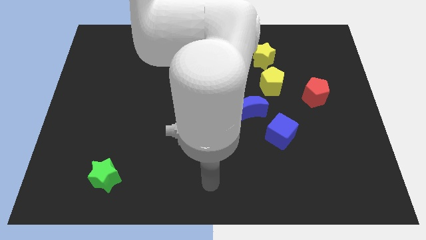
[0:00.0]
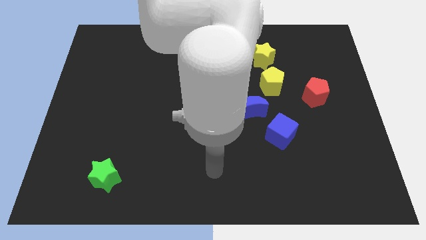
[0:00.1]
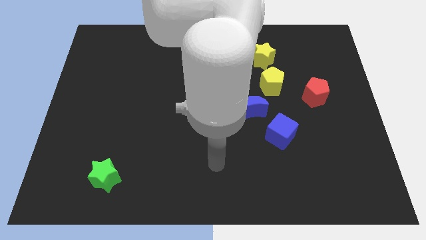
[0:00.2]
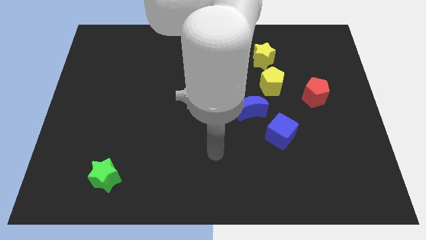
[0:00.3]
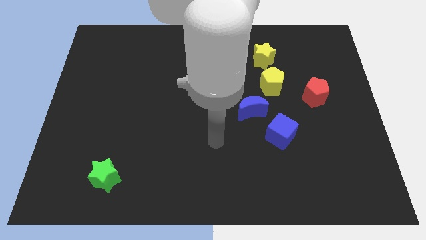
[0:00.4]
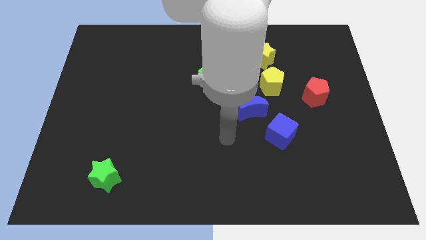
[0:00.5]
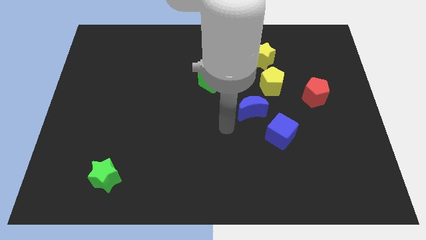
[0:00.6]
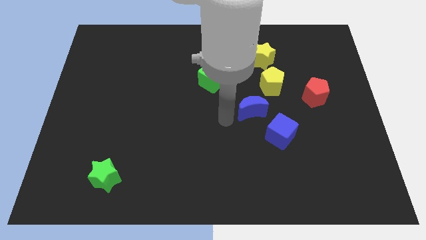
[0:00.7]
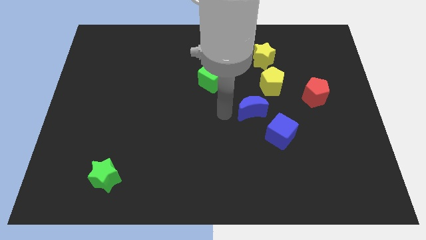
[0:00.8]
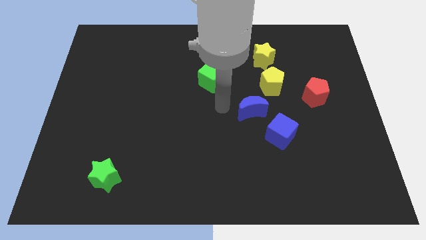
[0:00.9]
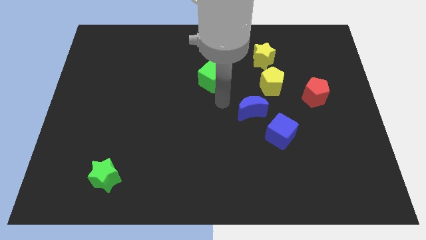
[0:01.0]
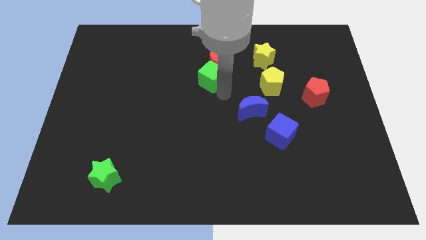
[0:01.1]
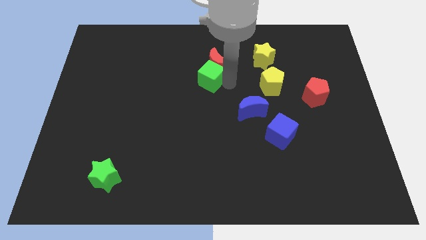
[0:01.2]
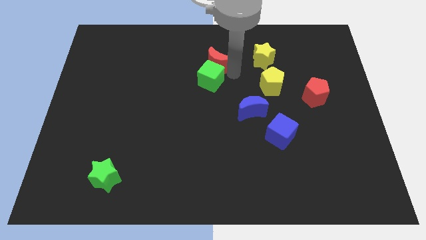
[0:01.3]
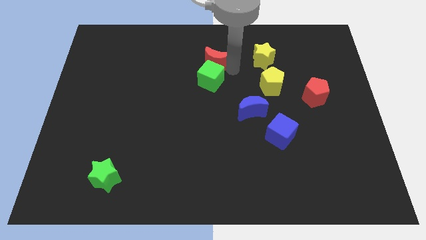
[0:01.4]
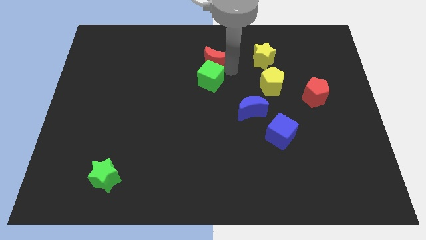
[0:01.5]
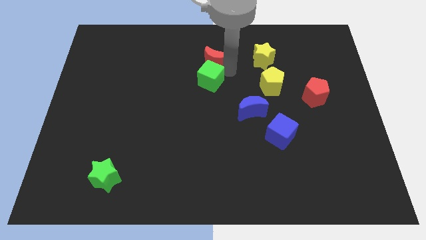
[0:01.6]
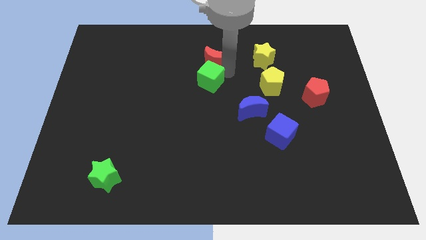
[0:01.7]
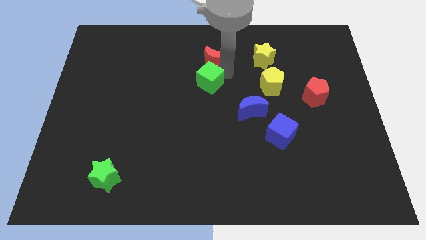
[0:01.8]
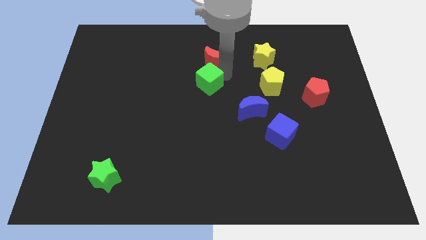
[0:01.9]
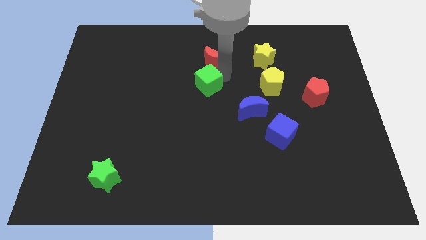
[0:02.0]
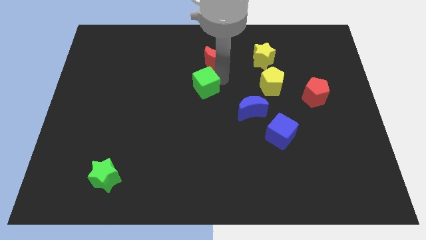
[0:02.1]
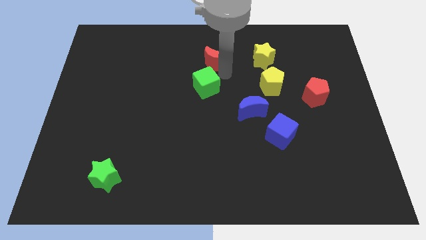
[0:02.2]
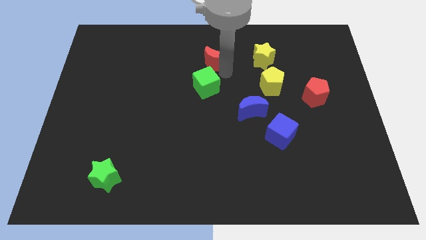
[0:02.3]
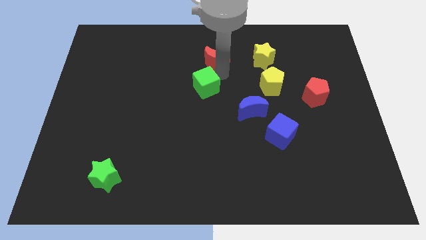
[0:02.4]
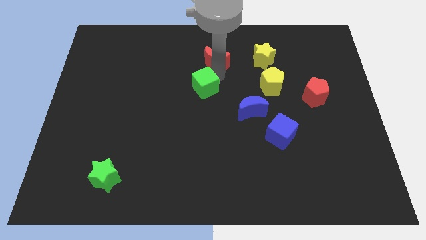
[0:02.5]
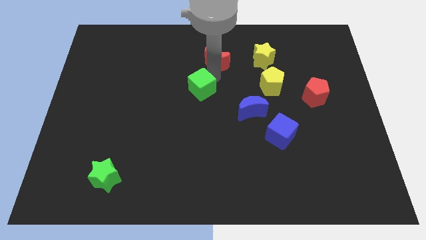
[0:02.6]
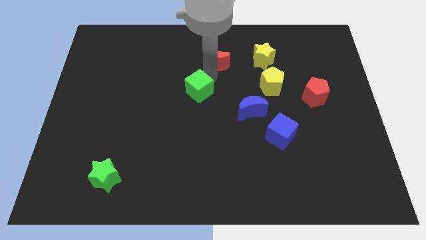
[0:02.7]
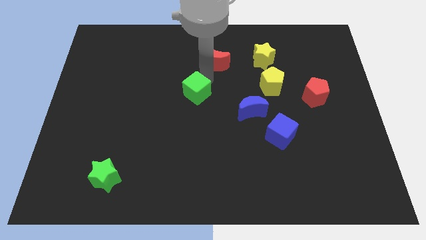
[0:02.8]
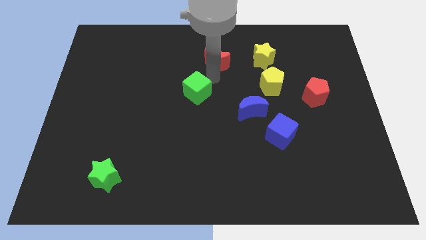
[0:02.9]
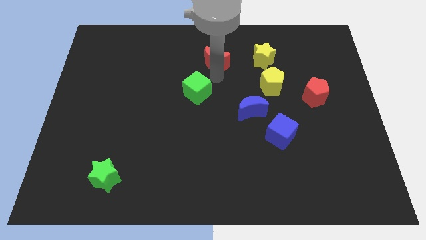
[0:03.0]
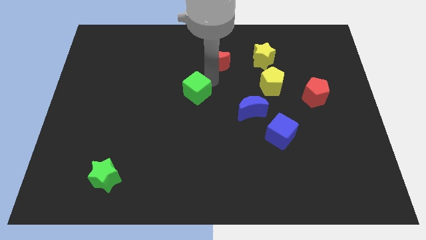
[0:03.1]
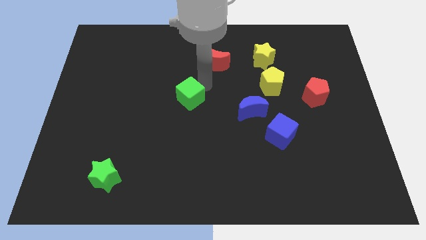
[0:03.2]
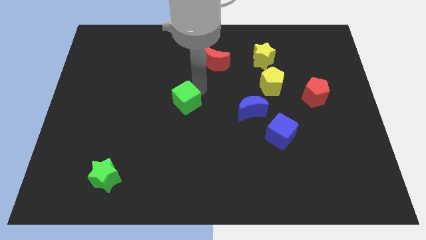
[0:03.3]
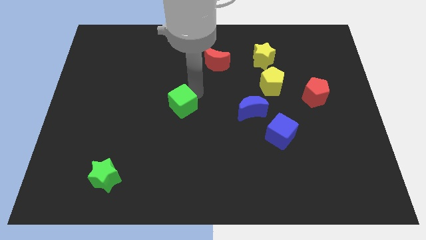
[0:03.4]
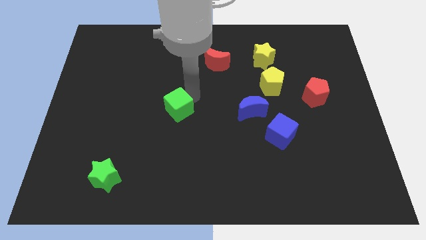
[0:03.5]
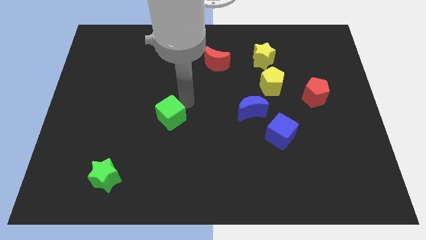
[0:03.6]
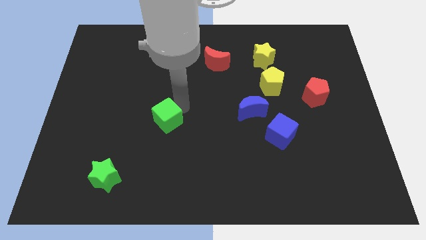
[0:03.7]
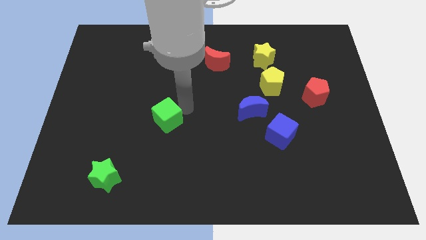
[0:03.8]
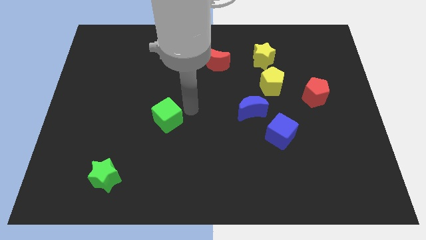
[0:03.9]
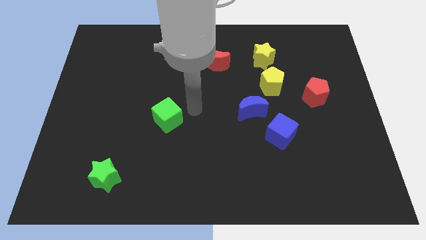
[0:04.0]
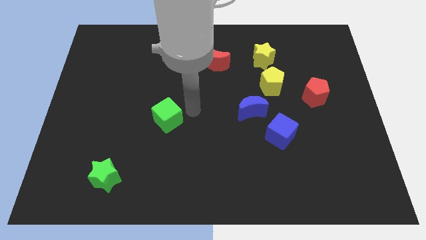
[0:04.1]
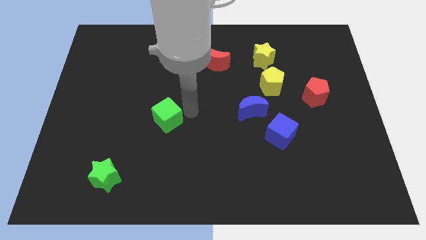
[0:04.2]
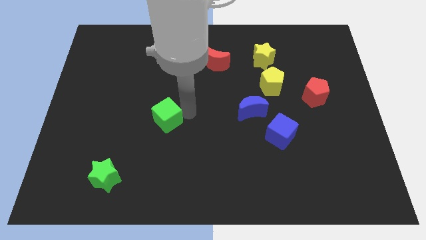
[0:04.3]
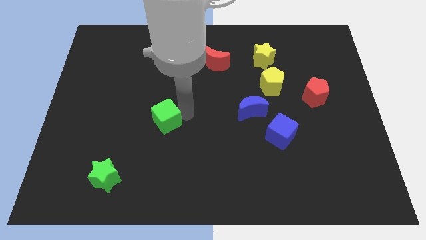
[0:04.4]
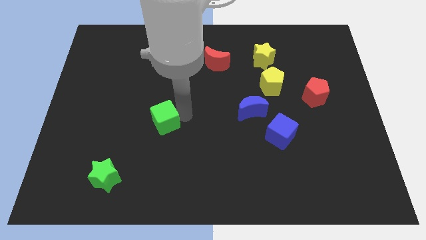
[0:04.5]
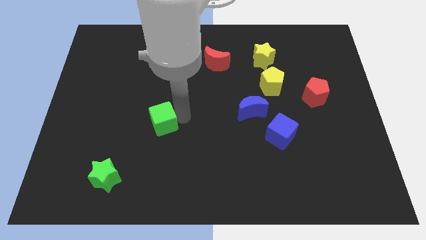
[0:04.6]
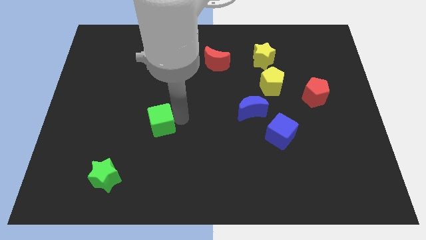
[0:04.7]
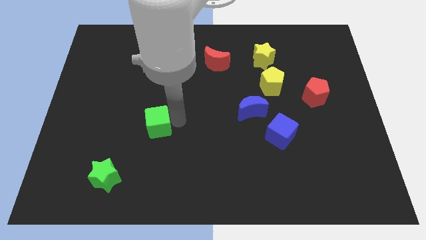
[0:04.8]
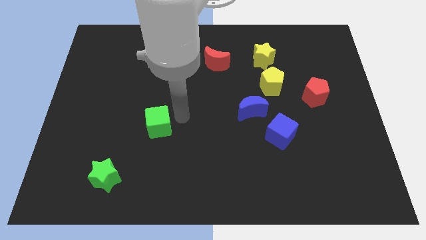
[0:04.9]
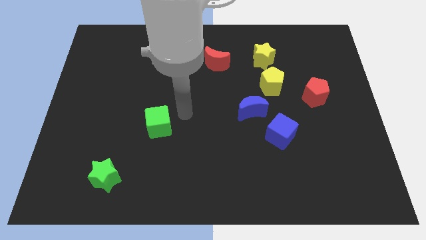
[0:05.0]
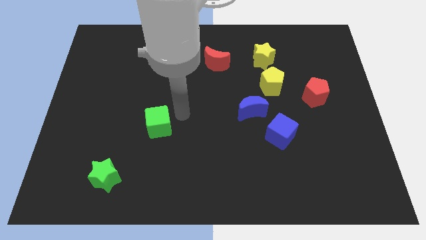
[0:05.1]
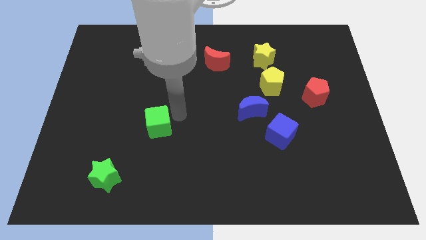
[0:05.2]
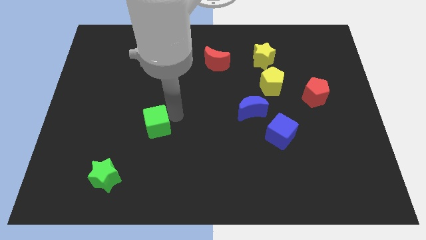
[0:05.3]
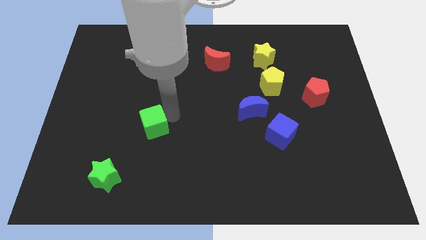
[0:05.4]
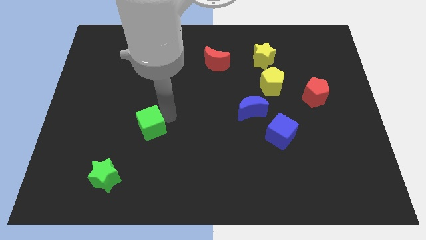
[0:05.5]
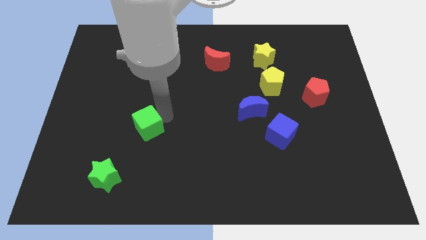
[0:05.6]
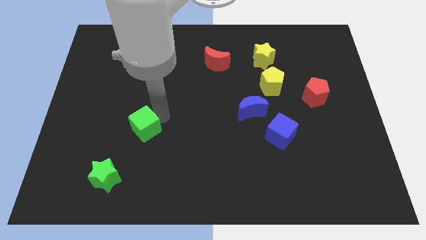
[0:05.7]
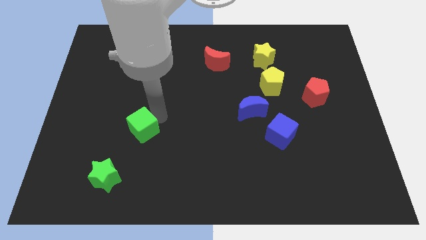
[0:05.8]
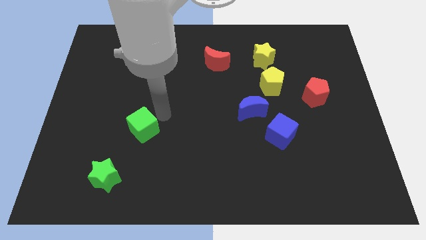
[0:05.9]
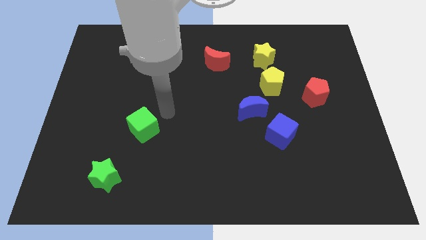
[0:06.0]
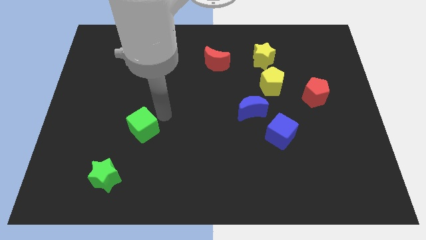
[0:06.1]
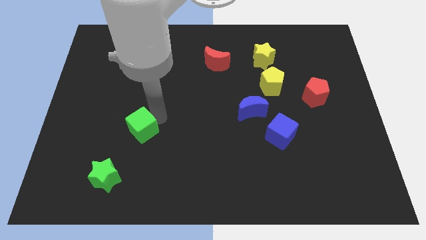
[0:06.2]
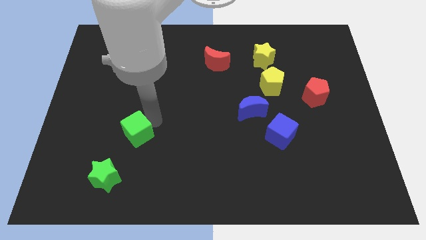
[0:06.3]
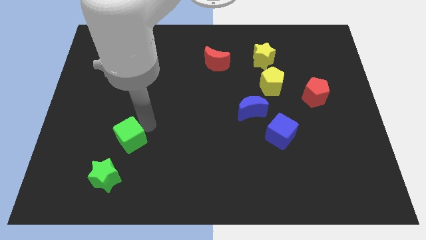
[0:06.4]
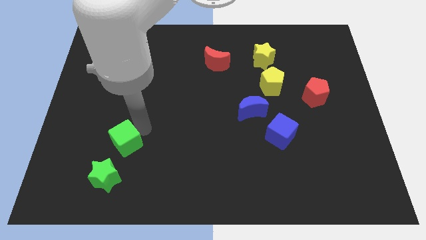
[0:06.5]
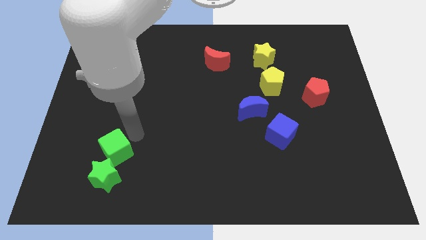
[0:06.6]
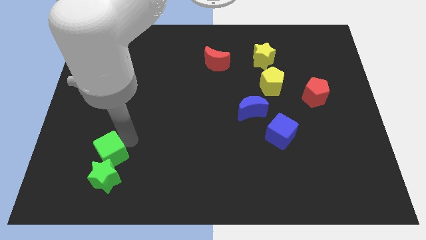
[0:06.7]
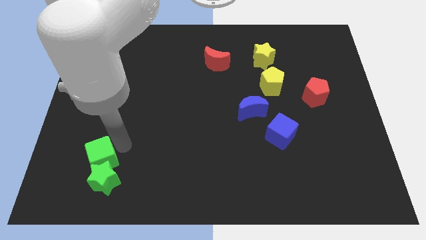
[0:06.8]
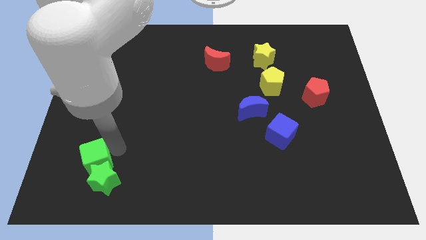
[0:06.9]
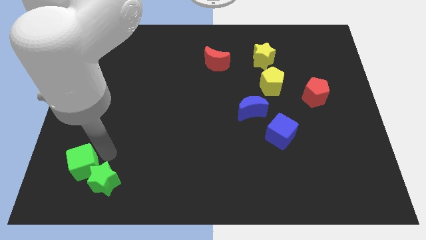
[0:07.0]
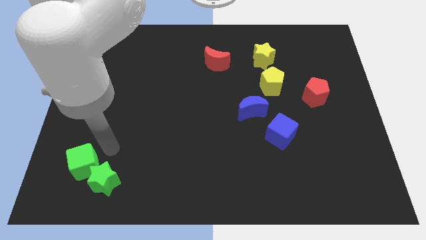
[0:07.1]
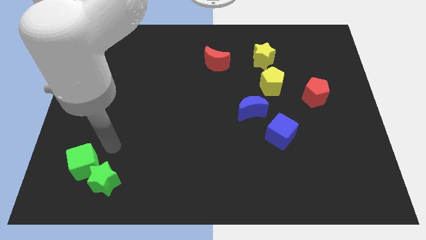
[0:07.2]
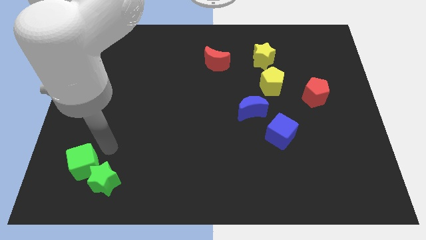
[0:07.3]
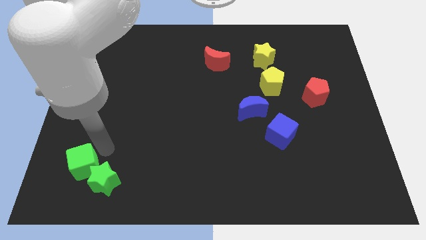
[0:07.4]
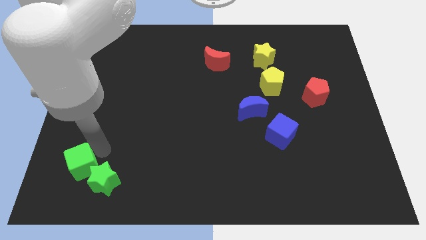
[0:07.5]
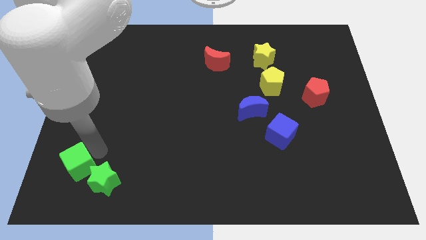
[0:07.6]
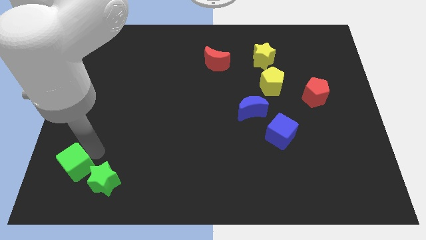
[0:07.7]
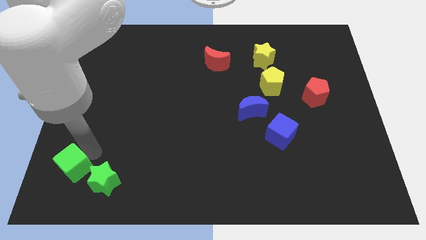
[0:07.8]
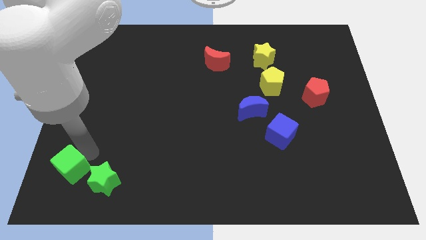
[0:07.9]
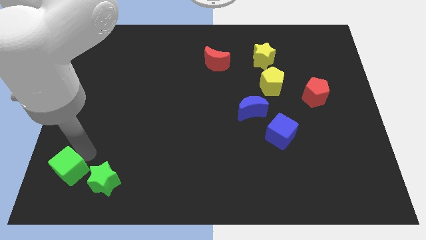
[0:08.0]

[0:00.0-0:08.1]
push the green cube to the bottom left of the board
